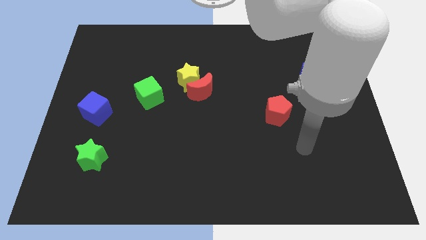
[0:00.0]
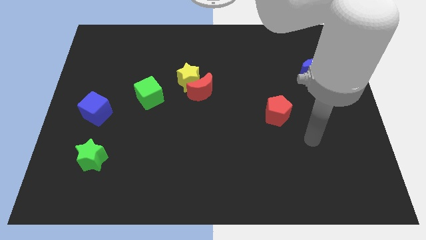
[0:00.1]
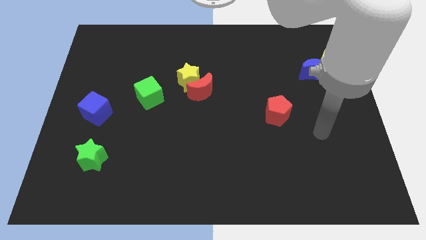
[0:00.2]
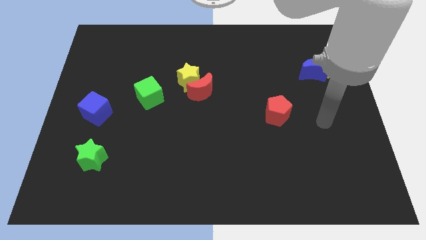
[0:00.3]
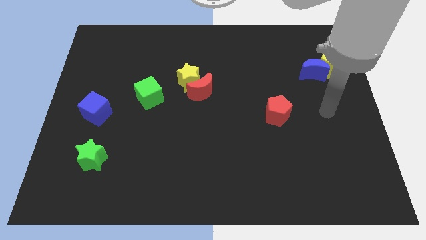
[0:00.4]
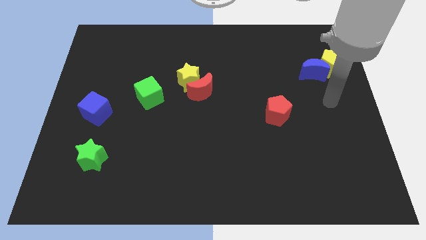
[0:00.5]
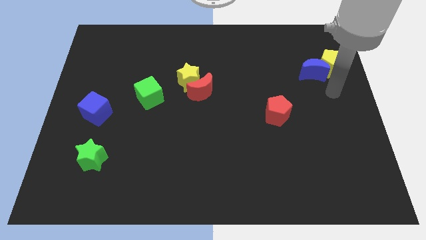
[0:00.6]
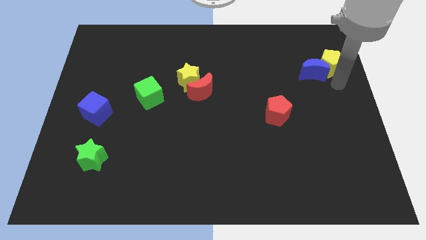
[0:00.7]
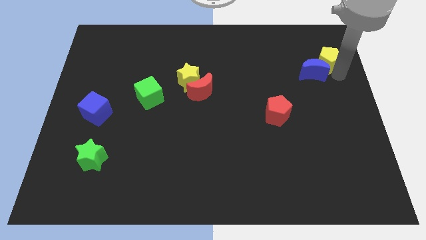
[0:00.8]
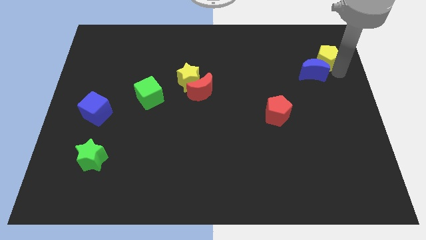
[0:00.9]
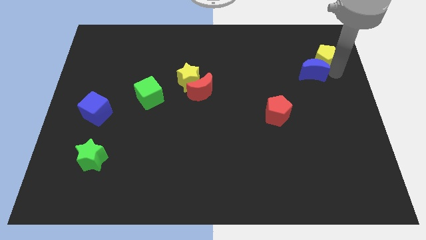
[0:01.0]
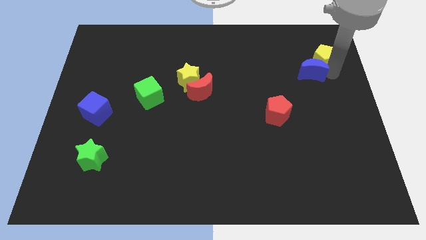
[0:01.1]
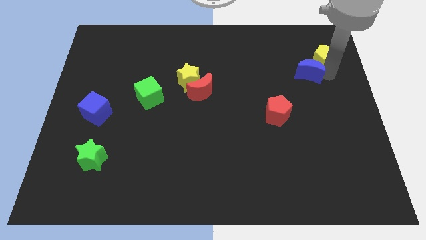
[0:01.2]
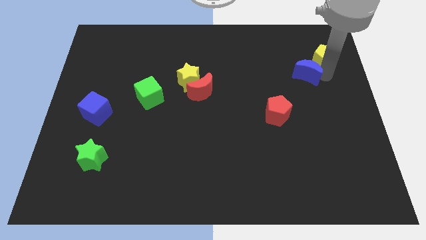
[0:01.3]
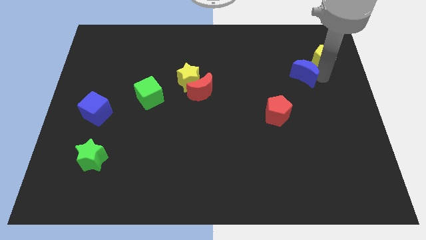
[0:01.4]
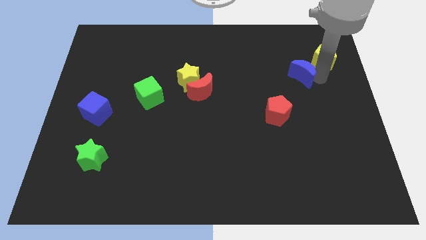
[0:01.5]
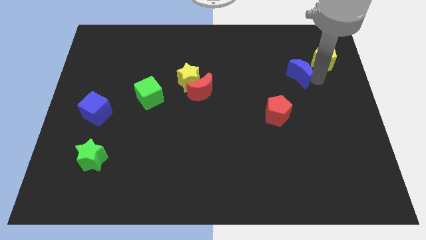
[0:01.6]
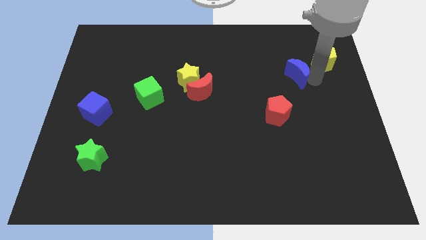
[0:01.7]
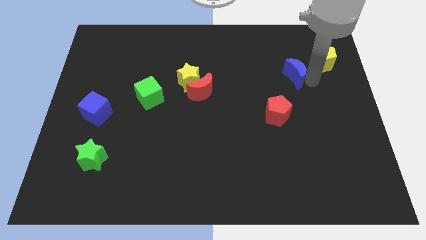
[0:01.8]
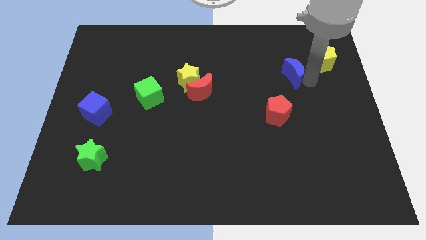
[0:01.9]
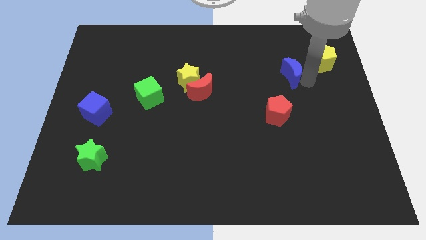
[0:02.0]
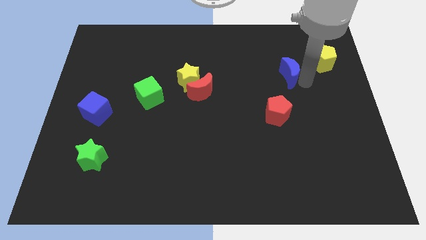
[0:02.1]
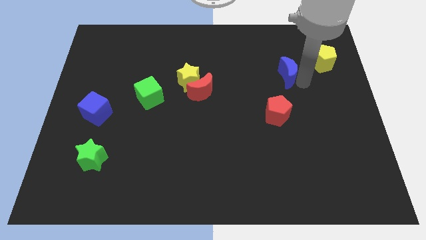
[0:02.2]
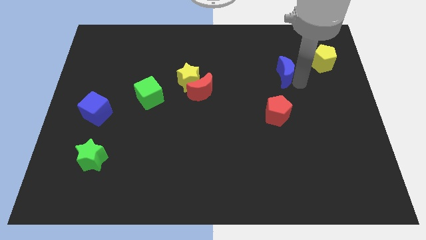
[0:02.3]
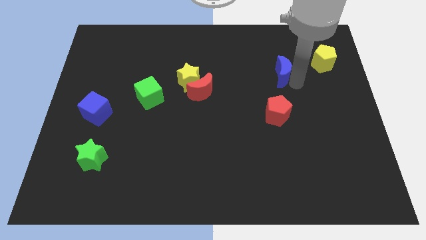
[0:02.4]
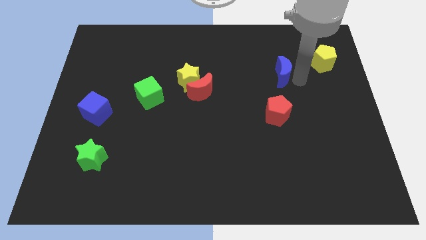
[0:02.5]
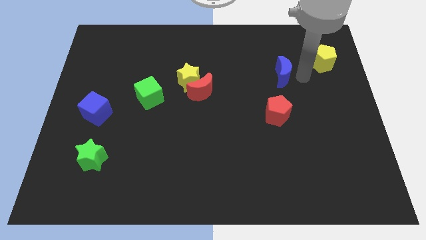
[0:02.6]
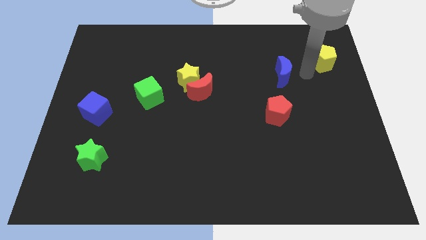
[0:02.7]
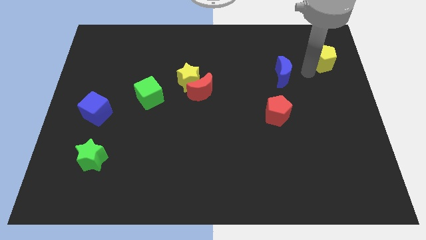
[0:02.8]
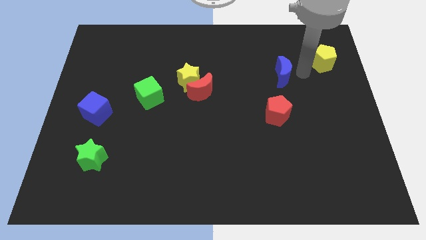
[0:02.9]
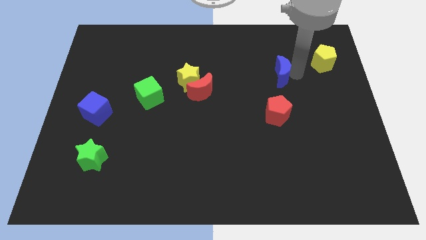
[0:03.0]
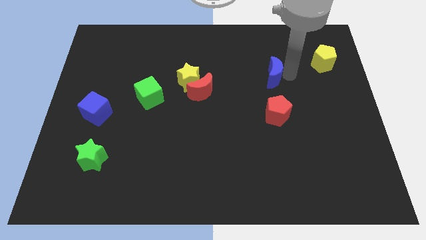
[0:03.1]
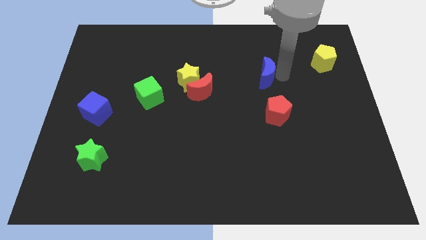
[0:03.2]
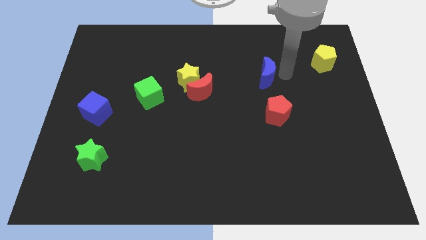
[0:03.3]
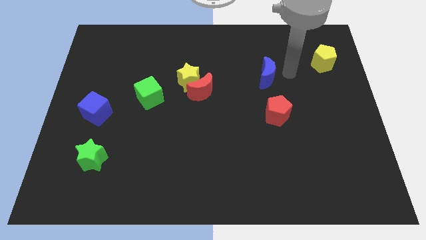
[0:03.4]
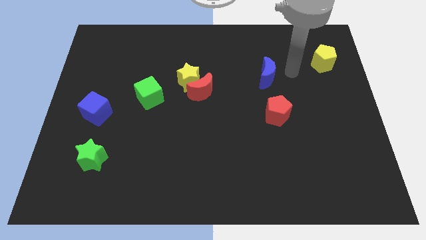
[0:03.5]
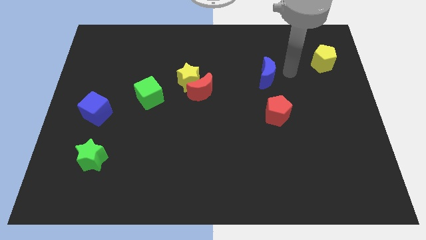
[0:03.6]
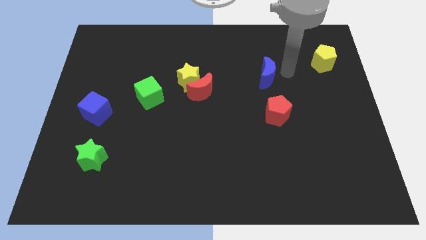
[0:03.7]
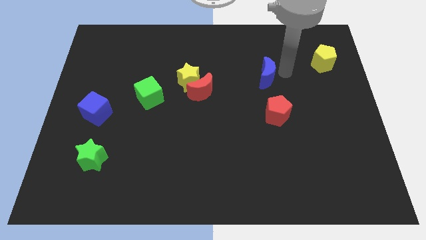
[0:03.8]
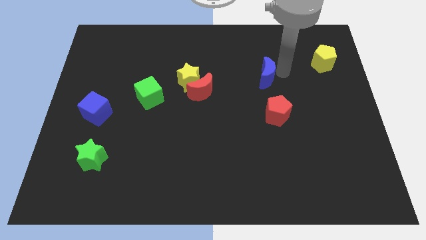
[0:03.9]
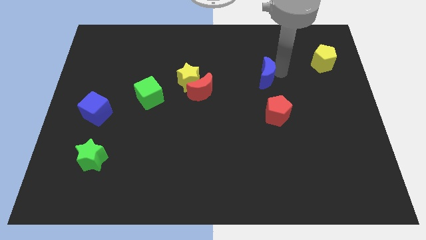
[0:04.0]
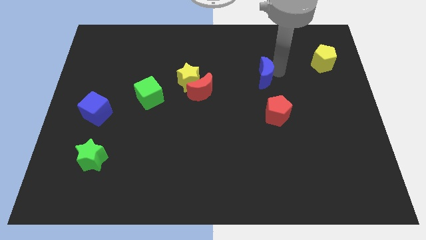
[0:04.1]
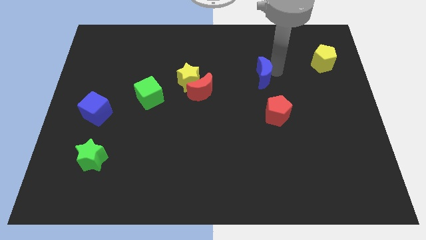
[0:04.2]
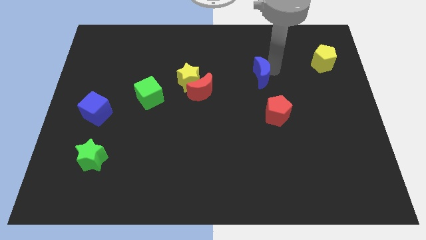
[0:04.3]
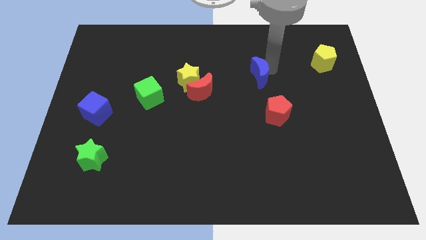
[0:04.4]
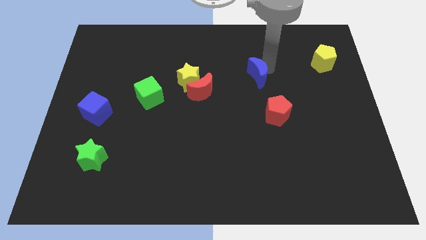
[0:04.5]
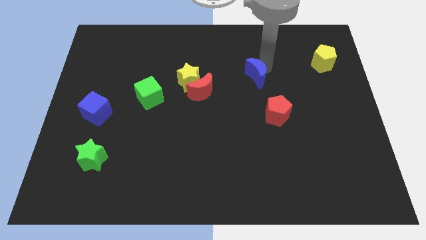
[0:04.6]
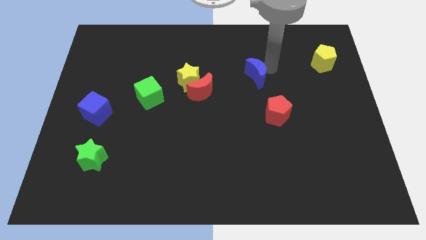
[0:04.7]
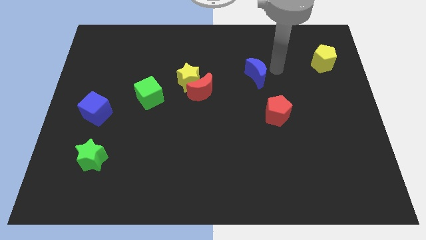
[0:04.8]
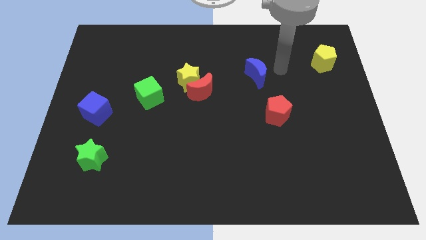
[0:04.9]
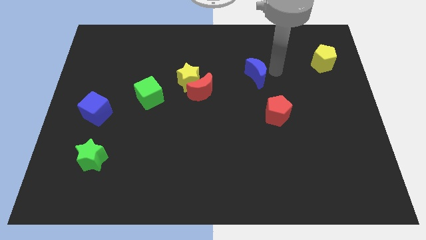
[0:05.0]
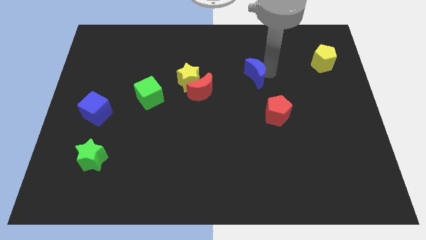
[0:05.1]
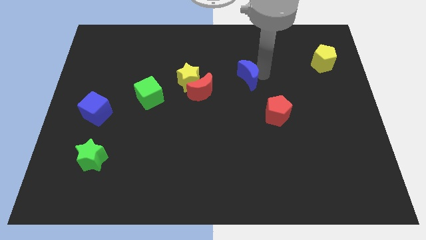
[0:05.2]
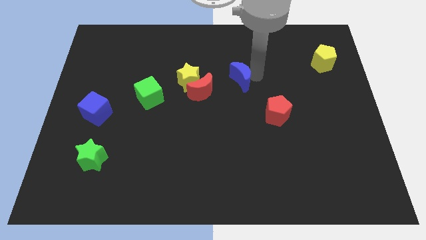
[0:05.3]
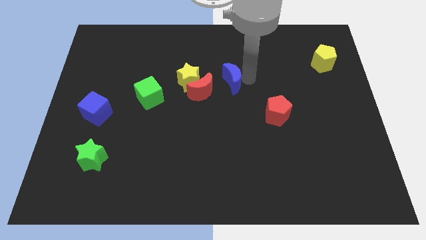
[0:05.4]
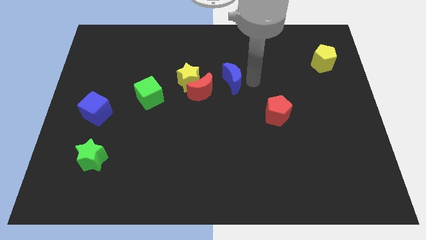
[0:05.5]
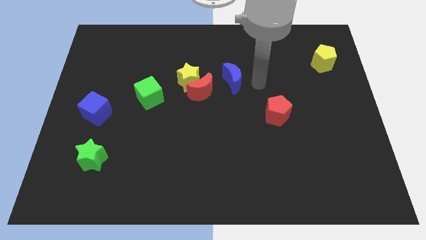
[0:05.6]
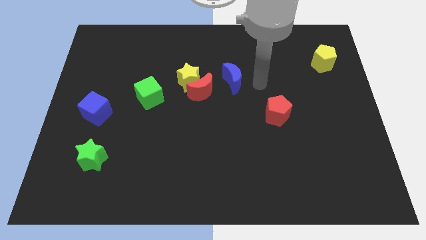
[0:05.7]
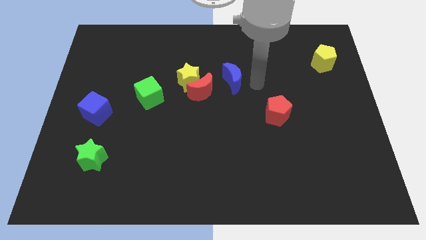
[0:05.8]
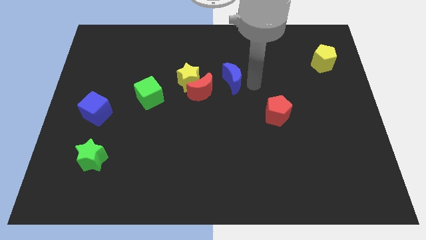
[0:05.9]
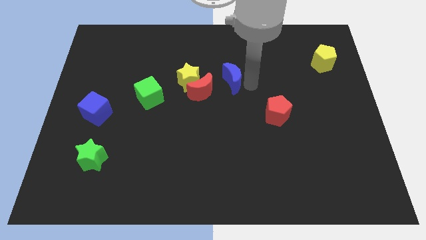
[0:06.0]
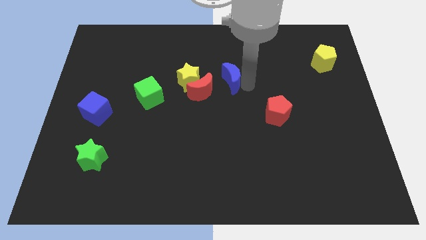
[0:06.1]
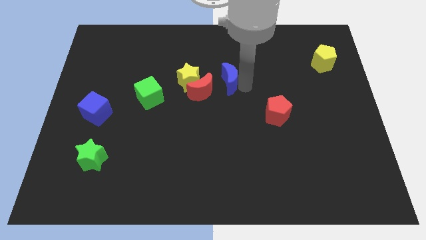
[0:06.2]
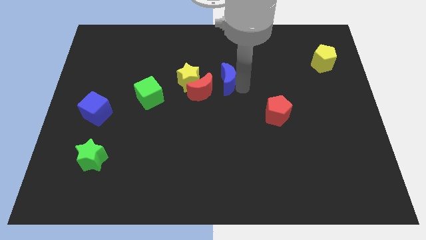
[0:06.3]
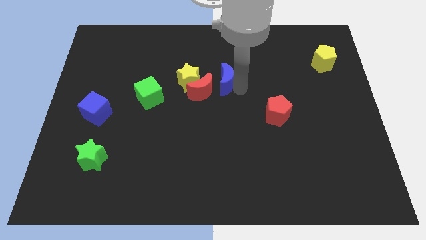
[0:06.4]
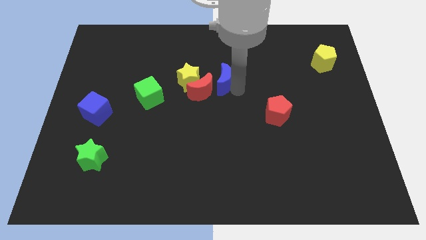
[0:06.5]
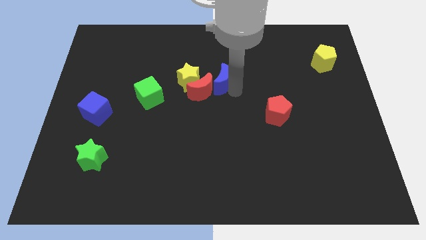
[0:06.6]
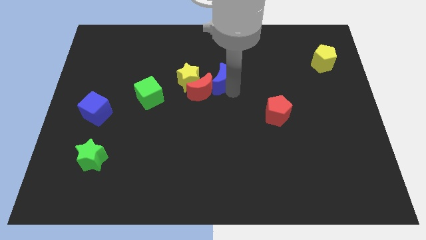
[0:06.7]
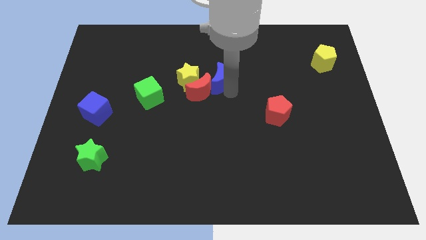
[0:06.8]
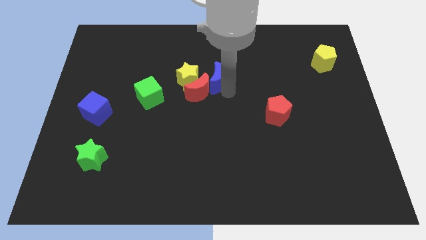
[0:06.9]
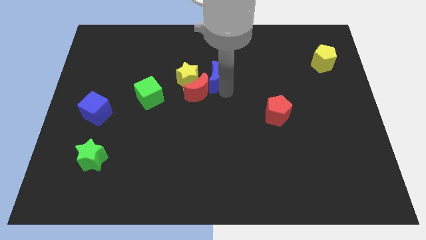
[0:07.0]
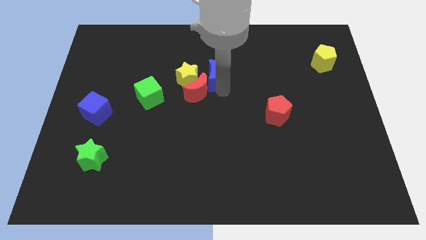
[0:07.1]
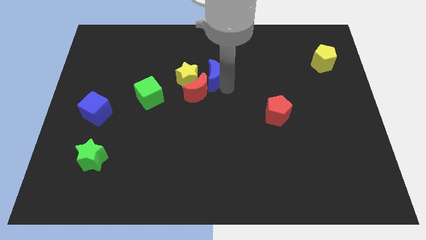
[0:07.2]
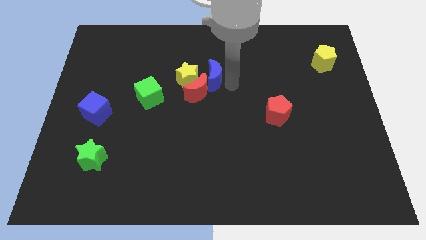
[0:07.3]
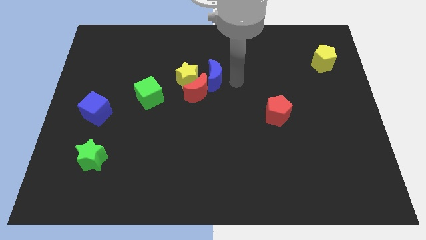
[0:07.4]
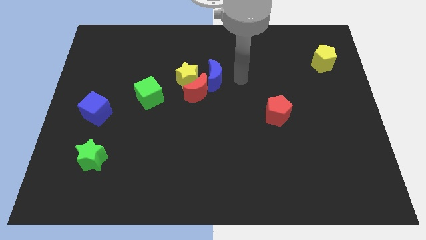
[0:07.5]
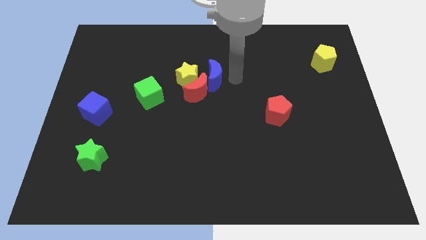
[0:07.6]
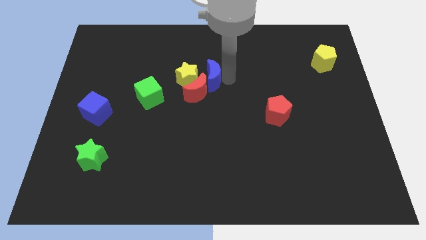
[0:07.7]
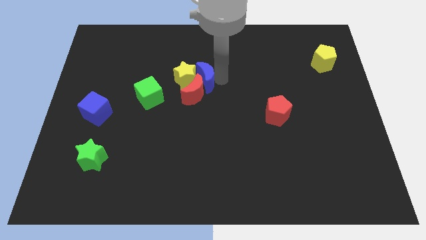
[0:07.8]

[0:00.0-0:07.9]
put the blue moon towards the yellow star
